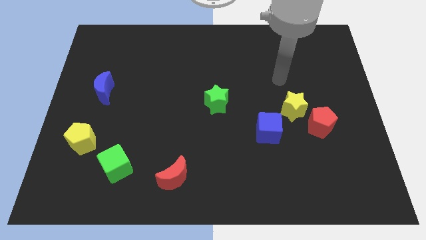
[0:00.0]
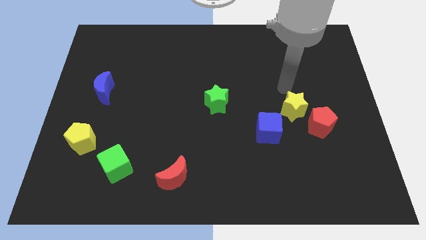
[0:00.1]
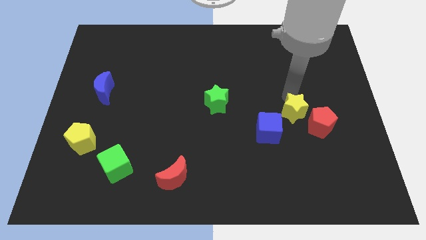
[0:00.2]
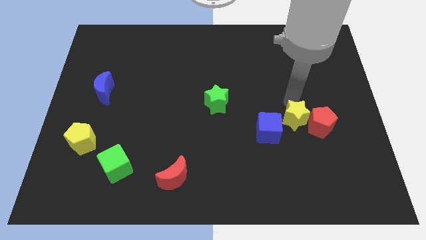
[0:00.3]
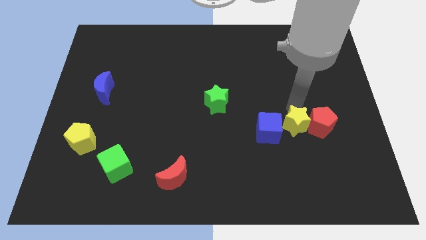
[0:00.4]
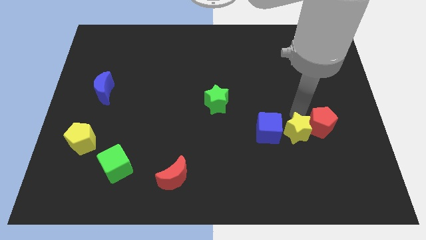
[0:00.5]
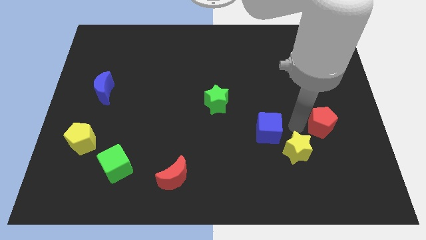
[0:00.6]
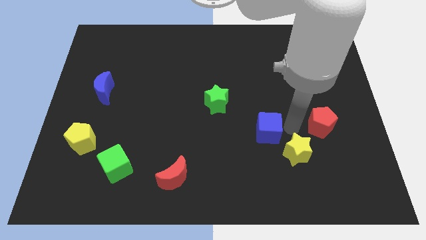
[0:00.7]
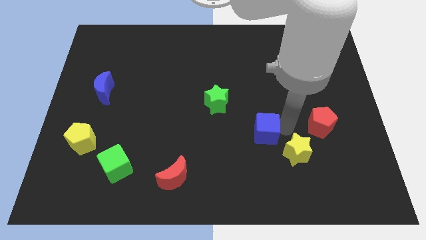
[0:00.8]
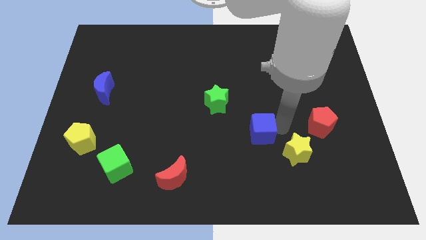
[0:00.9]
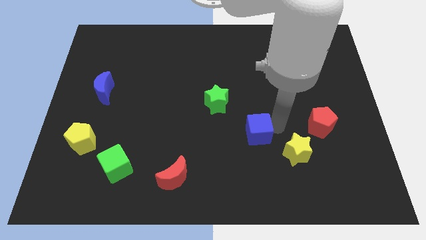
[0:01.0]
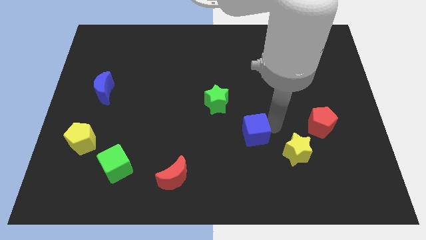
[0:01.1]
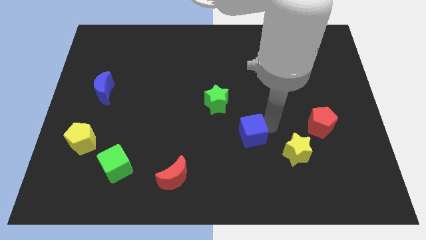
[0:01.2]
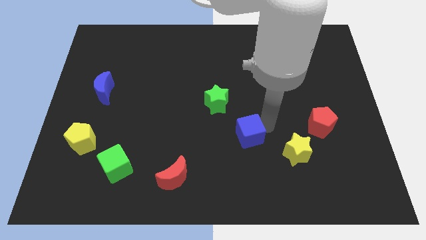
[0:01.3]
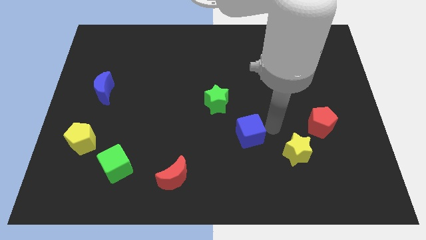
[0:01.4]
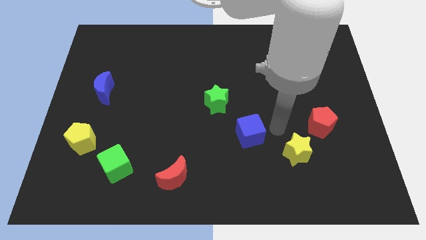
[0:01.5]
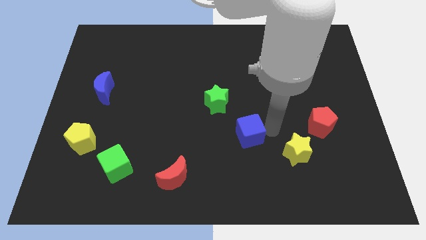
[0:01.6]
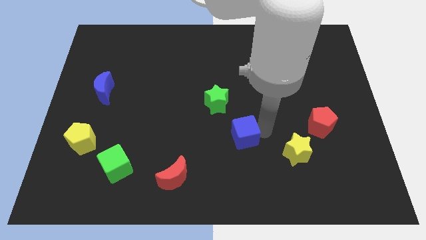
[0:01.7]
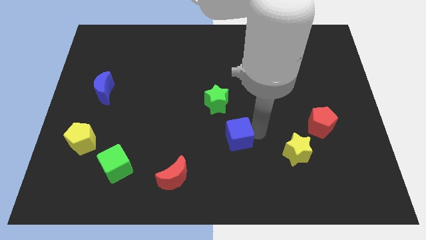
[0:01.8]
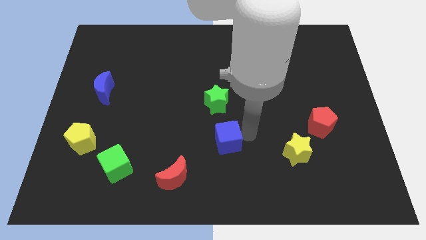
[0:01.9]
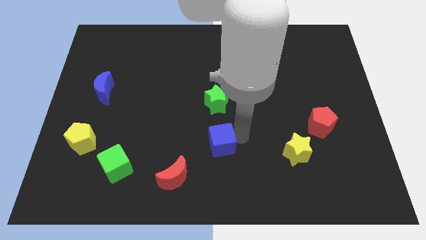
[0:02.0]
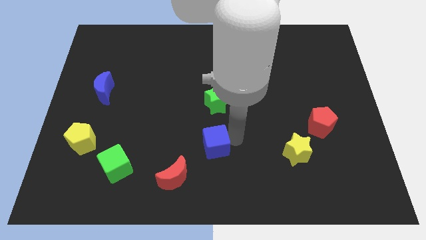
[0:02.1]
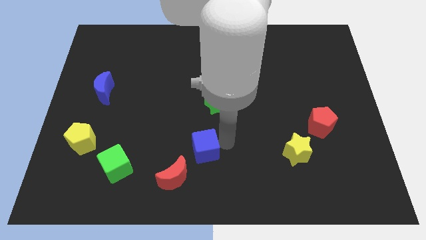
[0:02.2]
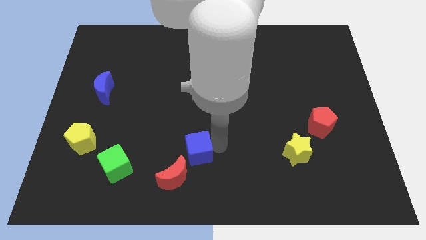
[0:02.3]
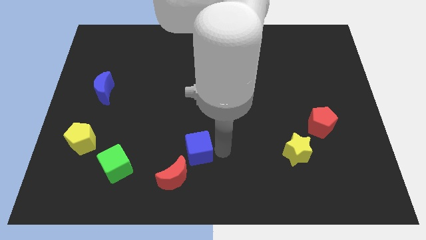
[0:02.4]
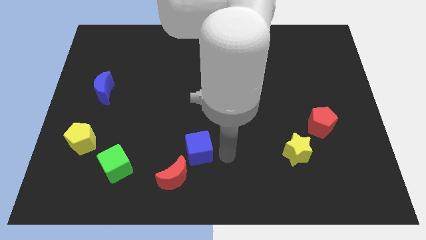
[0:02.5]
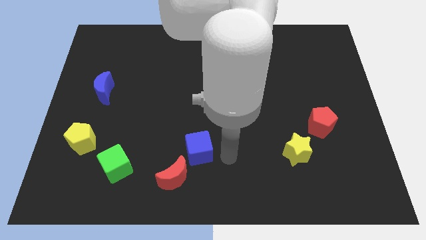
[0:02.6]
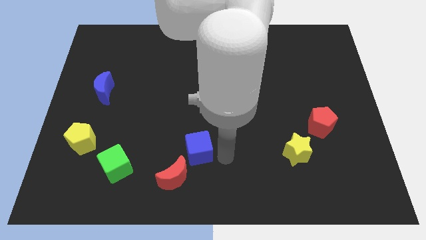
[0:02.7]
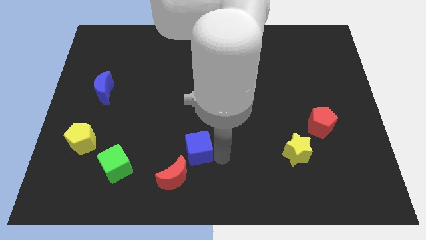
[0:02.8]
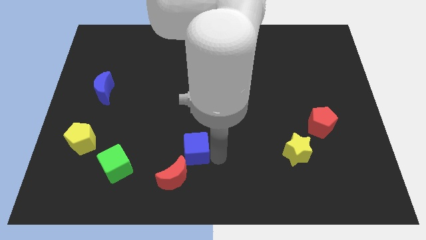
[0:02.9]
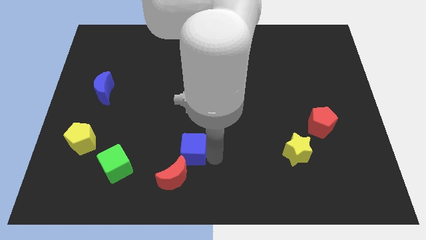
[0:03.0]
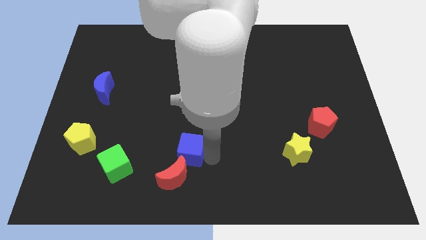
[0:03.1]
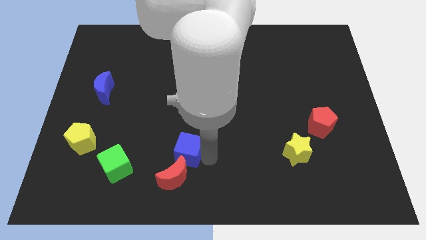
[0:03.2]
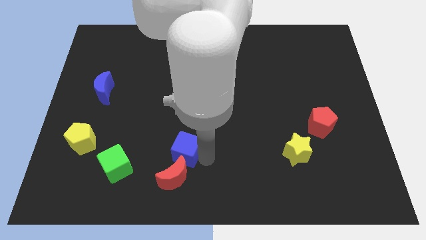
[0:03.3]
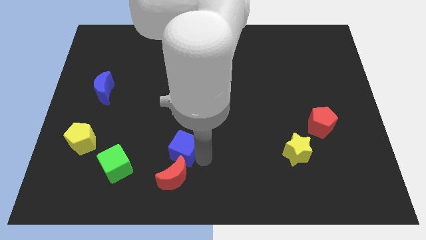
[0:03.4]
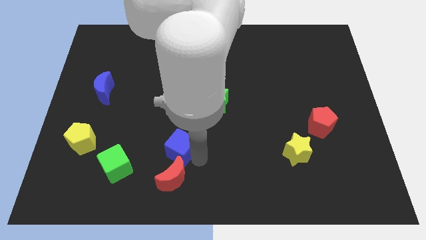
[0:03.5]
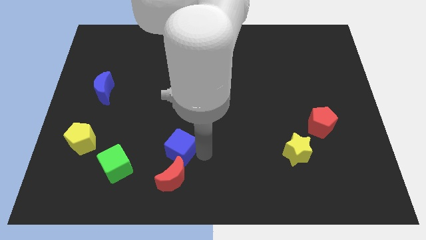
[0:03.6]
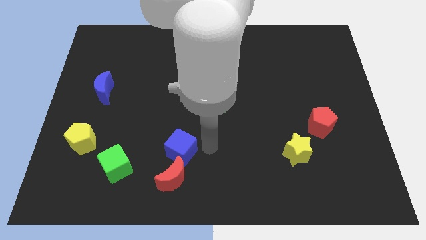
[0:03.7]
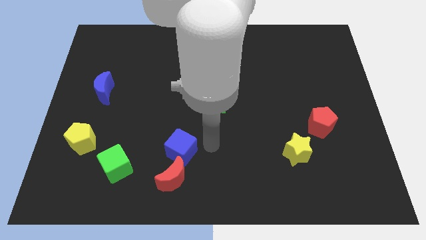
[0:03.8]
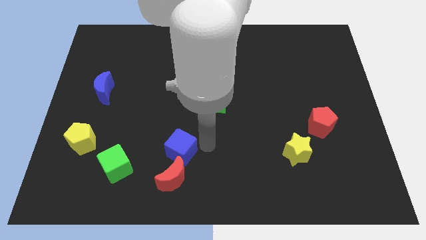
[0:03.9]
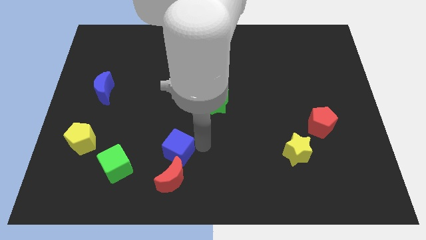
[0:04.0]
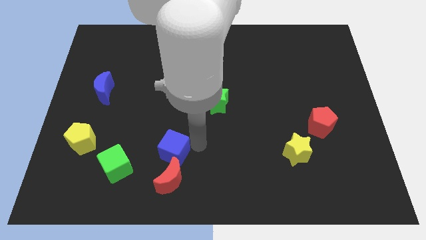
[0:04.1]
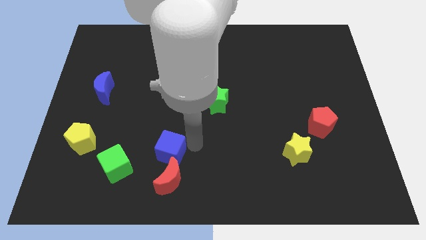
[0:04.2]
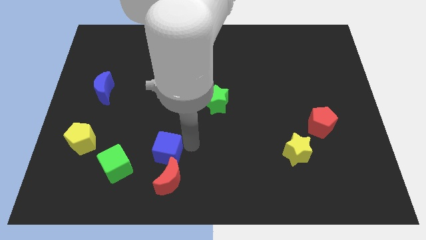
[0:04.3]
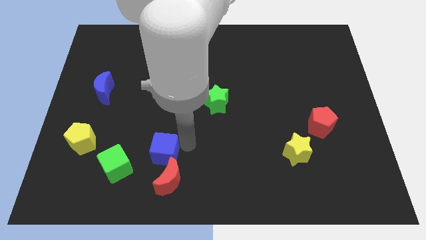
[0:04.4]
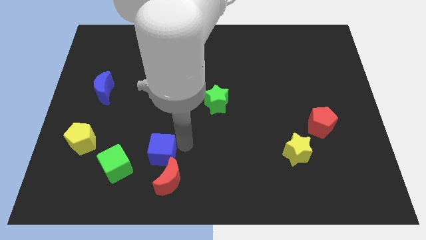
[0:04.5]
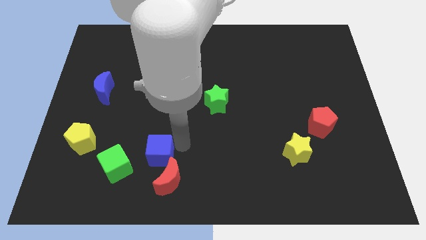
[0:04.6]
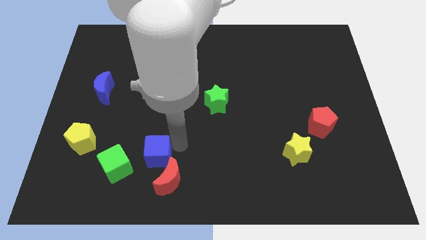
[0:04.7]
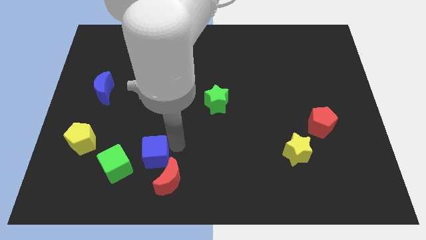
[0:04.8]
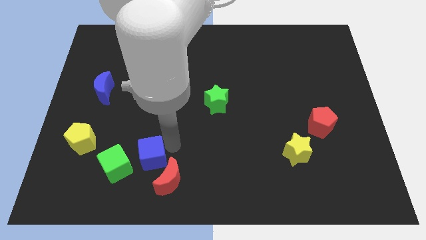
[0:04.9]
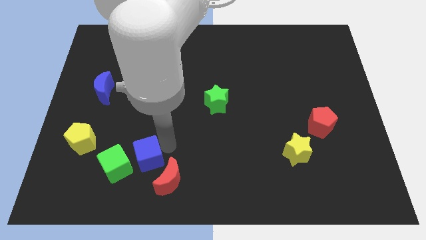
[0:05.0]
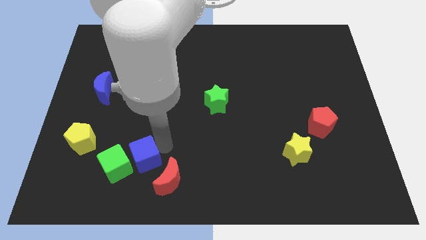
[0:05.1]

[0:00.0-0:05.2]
put the blue cube next to the green cube

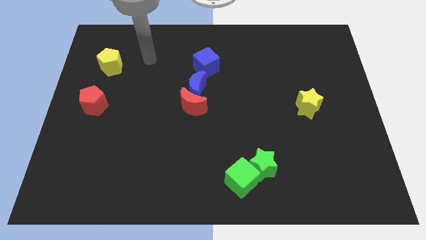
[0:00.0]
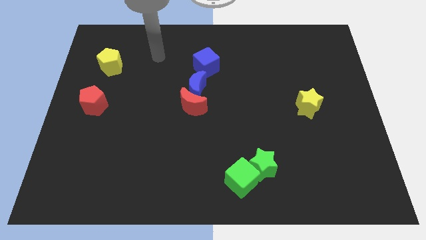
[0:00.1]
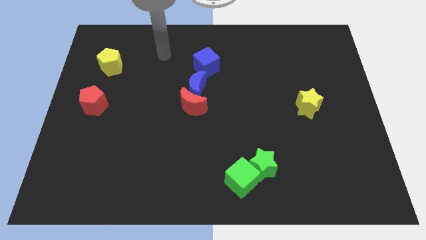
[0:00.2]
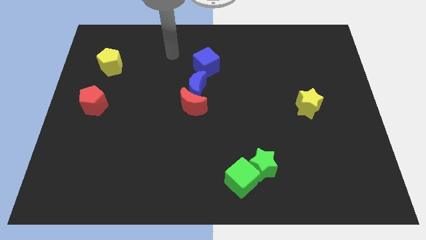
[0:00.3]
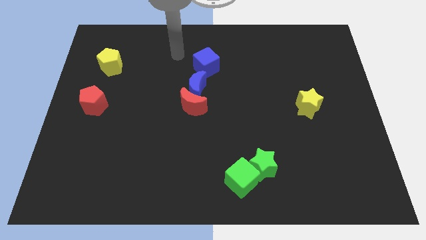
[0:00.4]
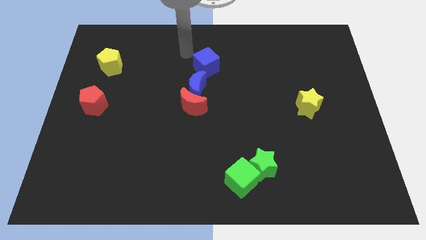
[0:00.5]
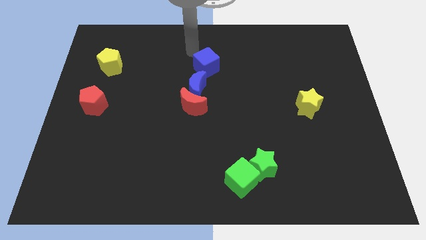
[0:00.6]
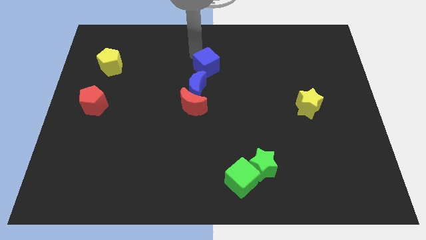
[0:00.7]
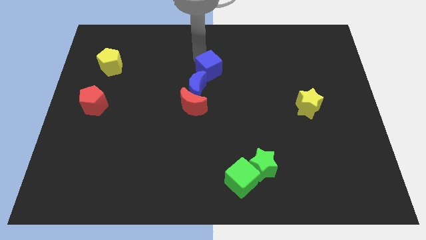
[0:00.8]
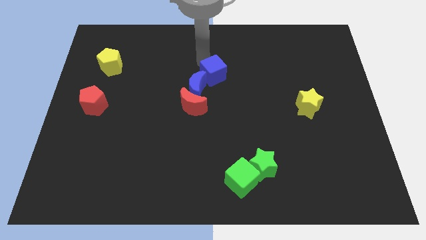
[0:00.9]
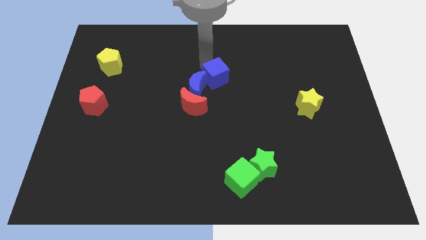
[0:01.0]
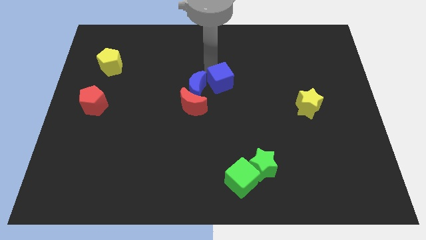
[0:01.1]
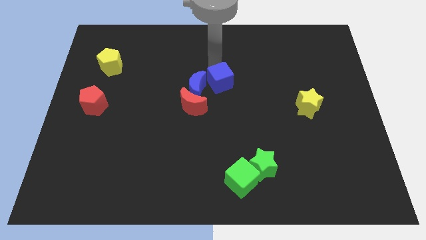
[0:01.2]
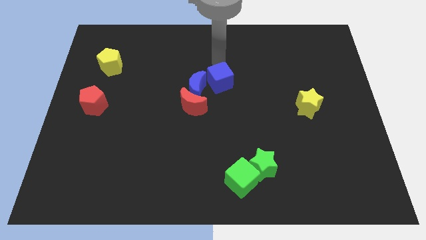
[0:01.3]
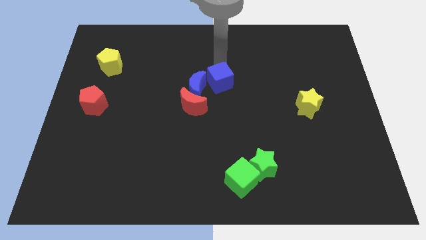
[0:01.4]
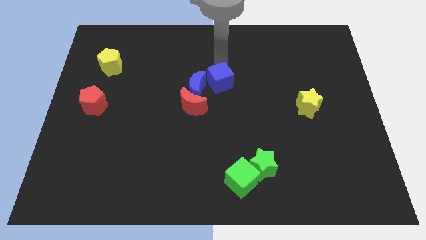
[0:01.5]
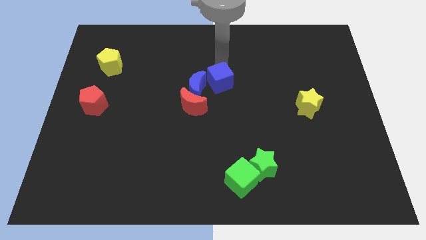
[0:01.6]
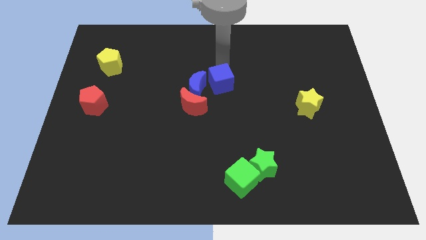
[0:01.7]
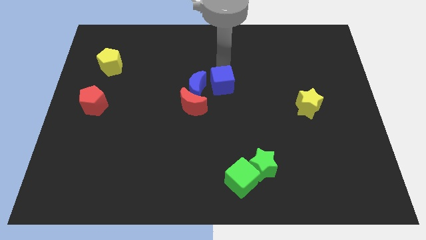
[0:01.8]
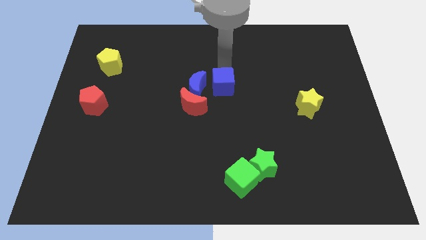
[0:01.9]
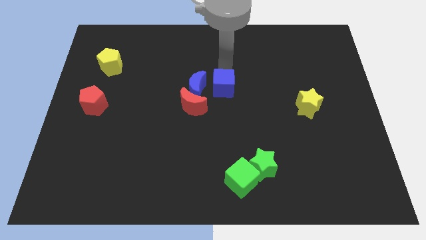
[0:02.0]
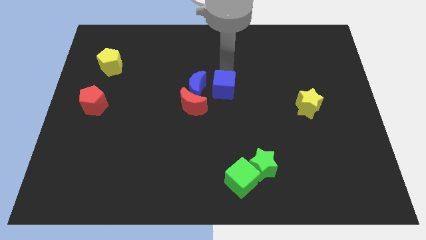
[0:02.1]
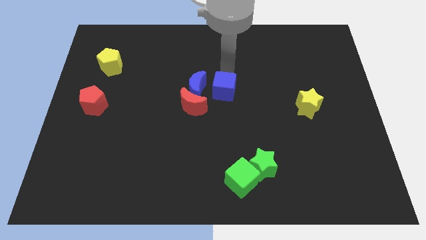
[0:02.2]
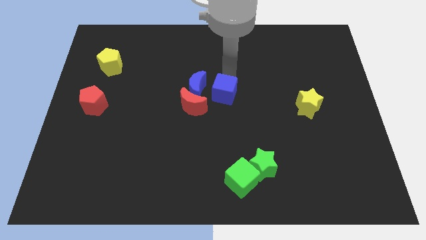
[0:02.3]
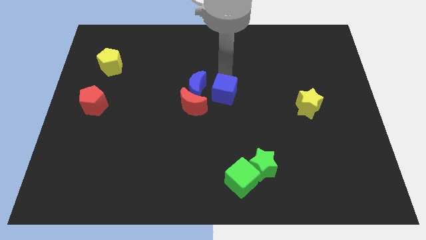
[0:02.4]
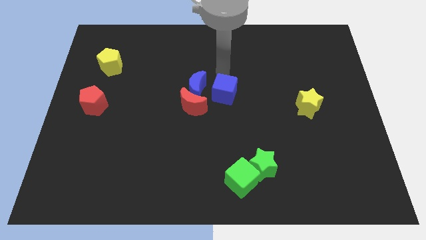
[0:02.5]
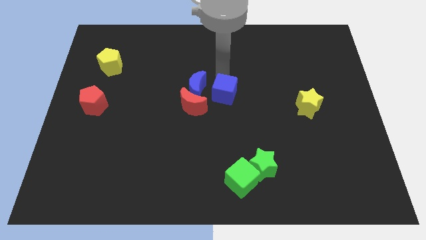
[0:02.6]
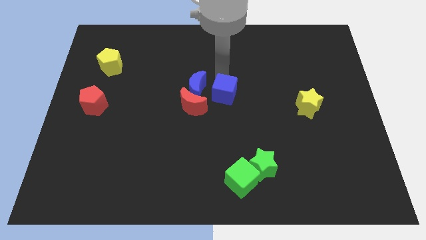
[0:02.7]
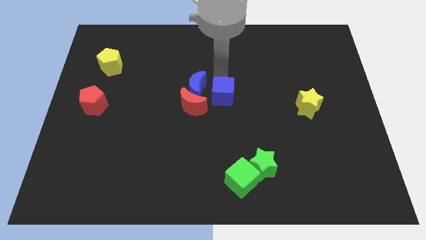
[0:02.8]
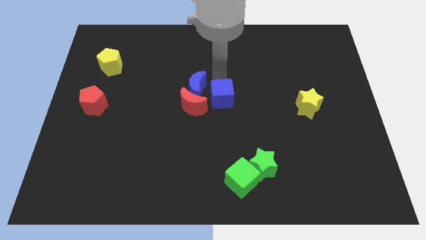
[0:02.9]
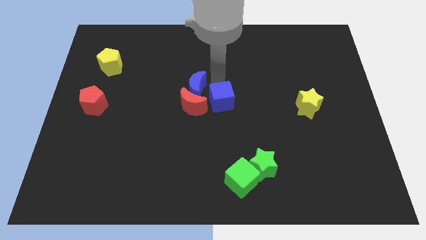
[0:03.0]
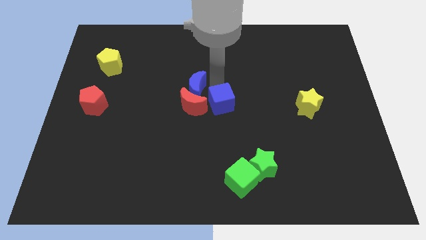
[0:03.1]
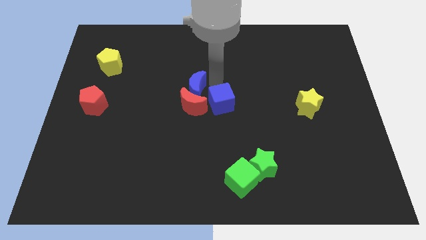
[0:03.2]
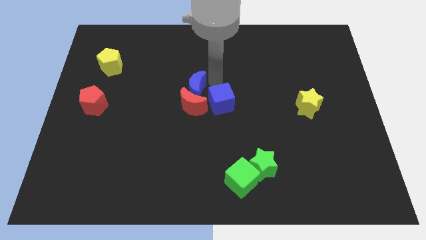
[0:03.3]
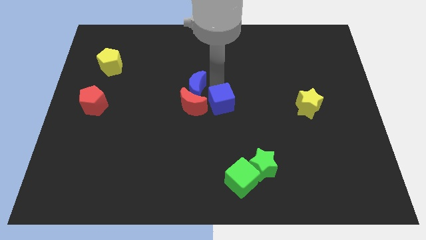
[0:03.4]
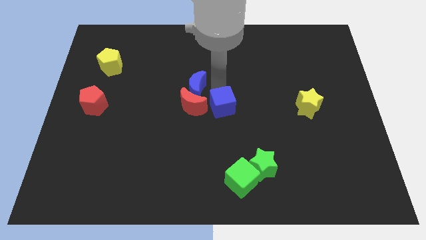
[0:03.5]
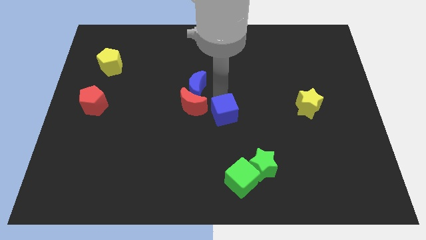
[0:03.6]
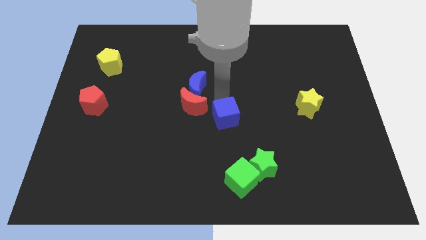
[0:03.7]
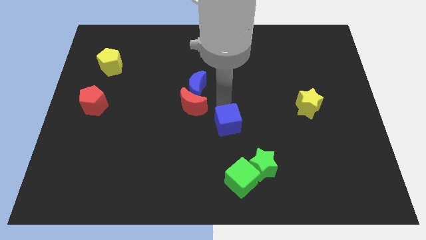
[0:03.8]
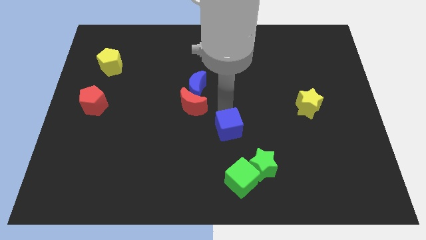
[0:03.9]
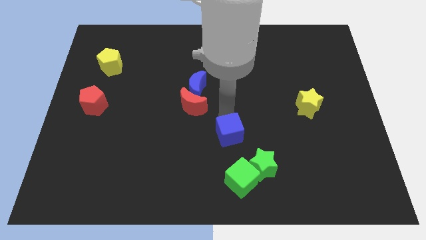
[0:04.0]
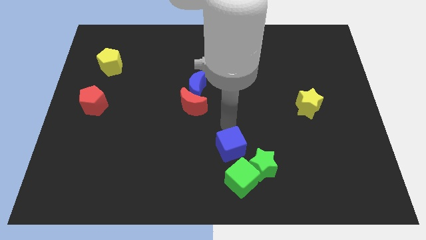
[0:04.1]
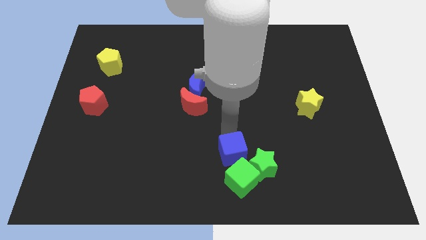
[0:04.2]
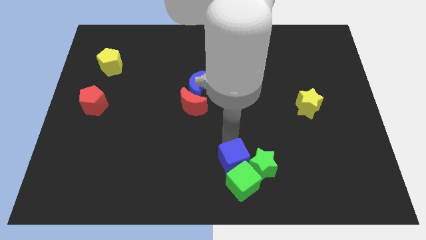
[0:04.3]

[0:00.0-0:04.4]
put the blue cube towards the green cube
